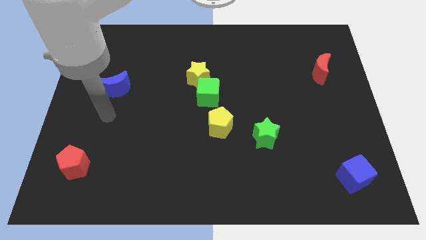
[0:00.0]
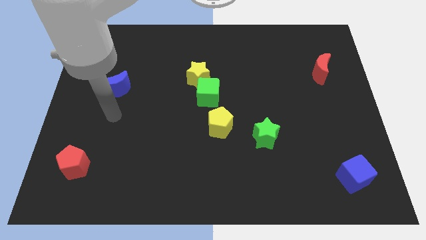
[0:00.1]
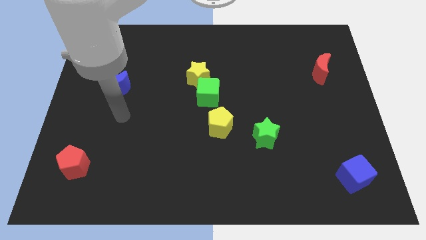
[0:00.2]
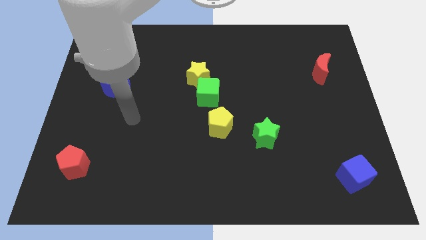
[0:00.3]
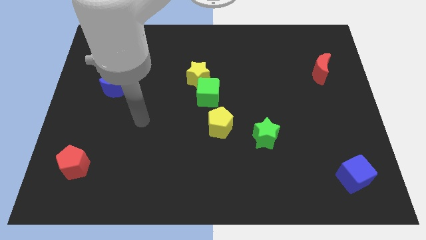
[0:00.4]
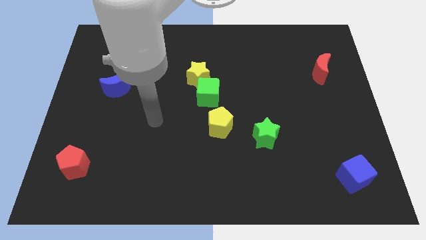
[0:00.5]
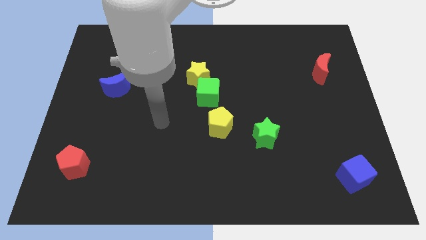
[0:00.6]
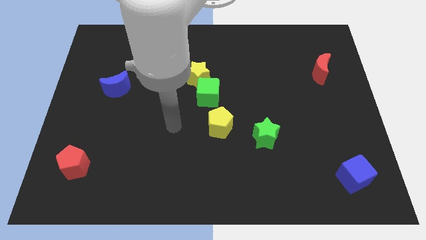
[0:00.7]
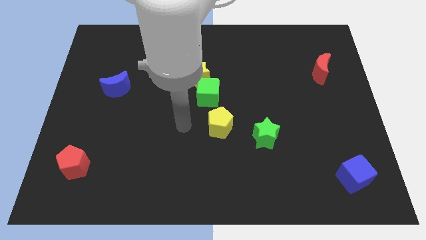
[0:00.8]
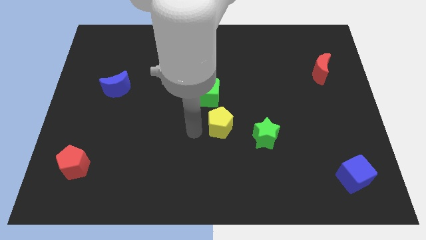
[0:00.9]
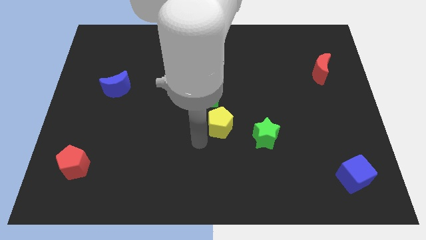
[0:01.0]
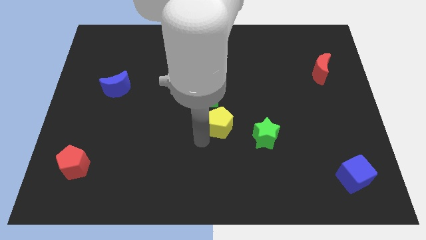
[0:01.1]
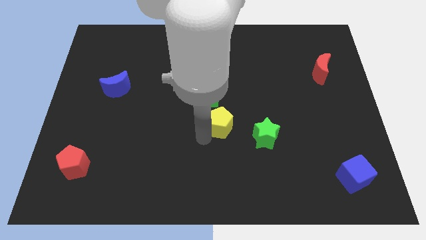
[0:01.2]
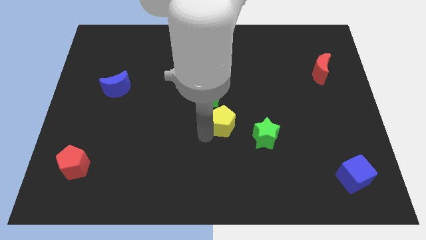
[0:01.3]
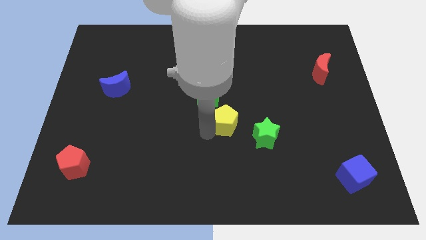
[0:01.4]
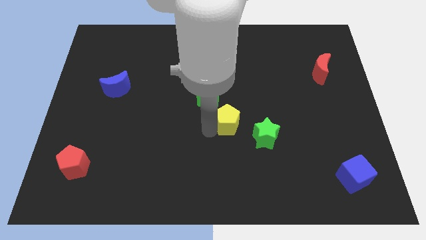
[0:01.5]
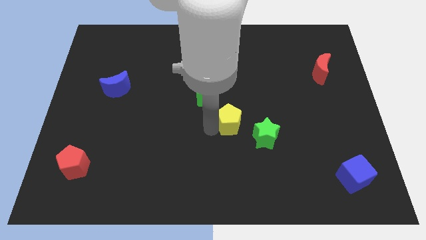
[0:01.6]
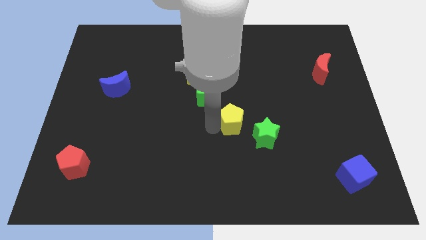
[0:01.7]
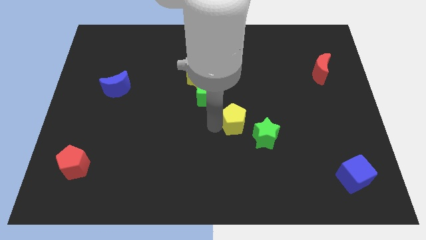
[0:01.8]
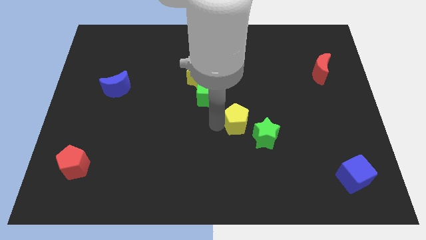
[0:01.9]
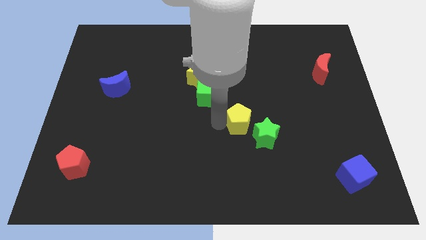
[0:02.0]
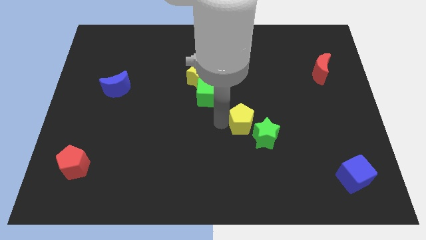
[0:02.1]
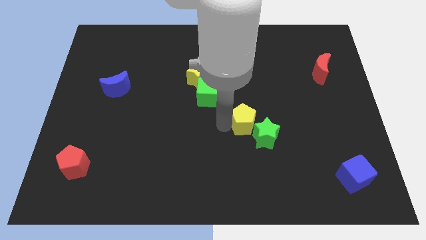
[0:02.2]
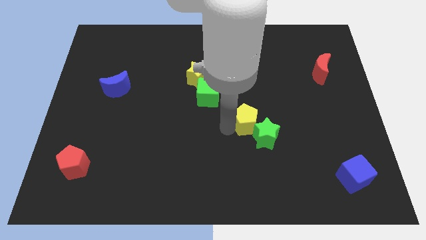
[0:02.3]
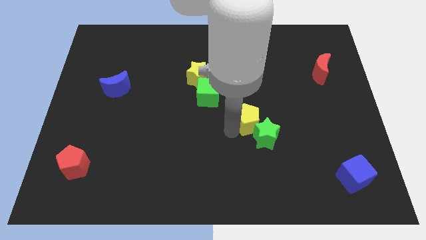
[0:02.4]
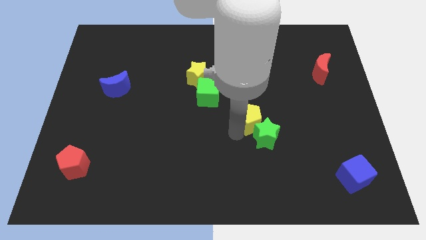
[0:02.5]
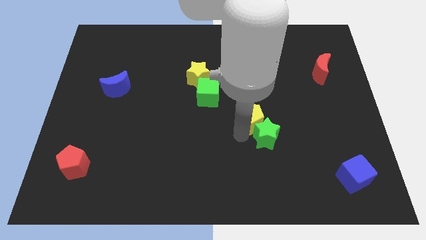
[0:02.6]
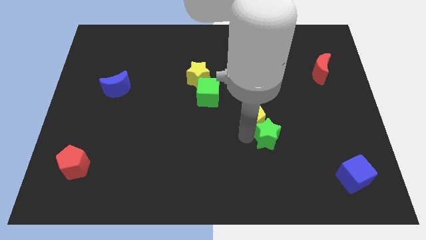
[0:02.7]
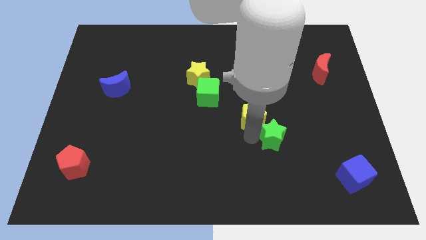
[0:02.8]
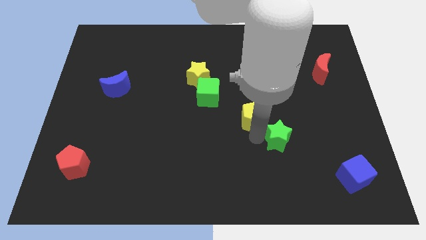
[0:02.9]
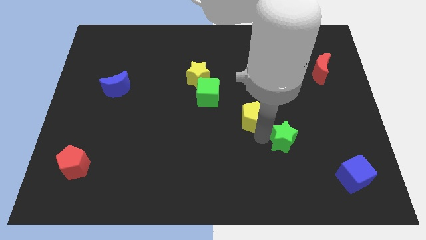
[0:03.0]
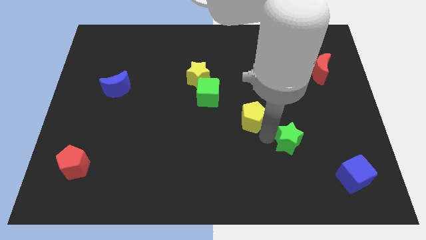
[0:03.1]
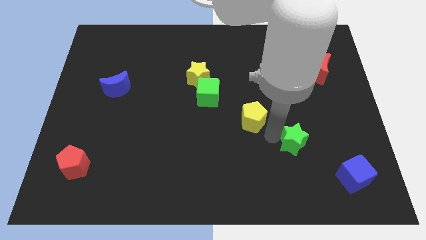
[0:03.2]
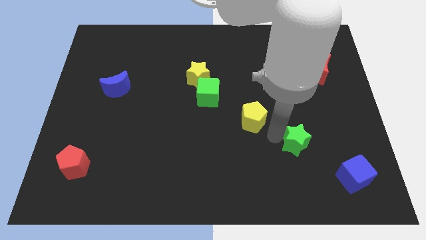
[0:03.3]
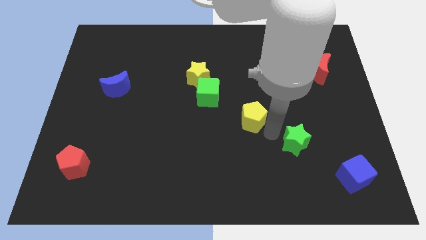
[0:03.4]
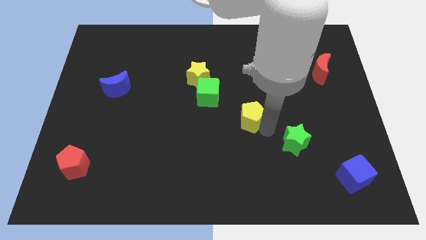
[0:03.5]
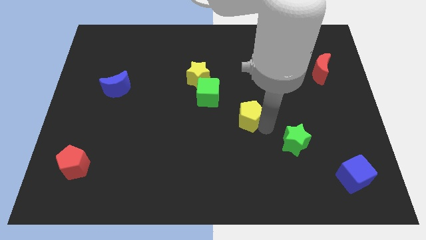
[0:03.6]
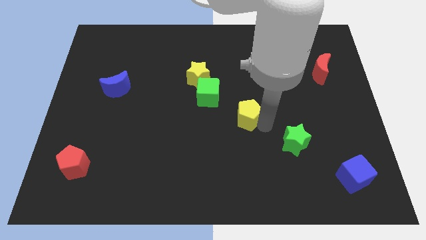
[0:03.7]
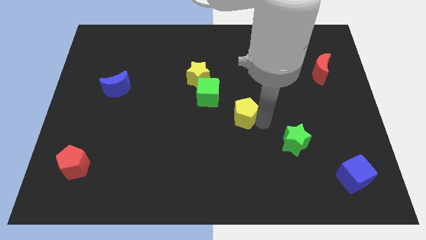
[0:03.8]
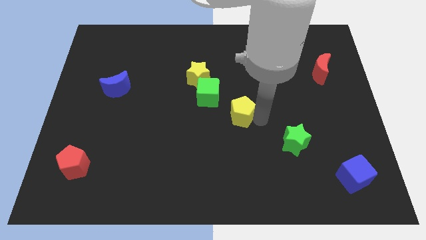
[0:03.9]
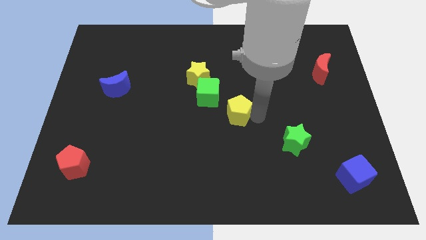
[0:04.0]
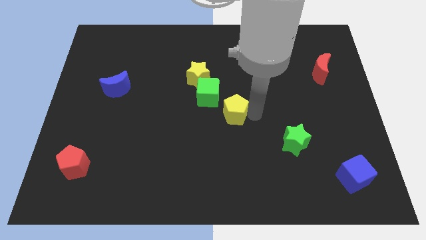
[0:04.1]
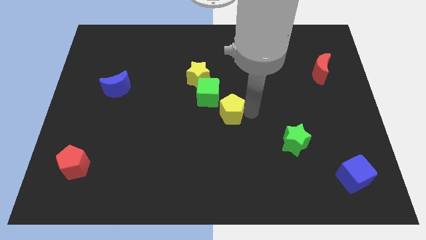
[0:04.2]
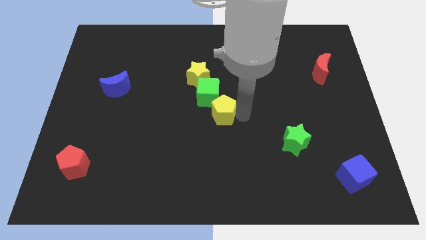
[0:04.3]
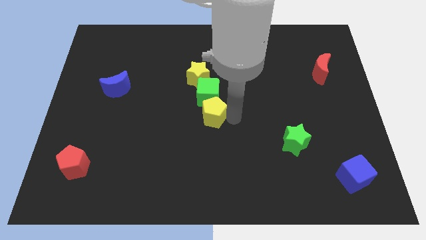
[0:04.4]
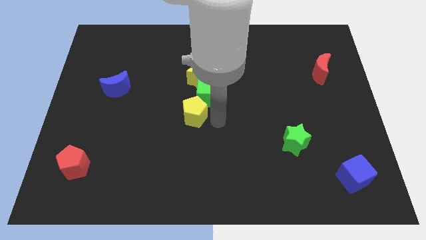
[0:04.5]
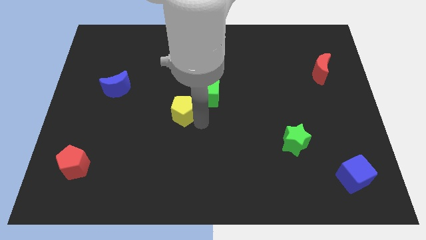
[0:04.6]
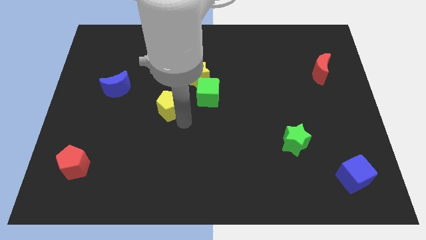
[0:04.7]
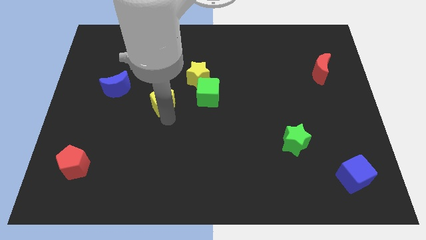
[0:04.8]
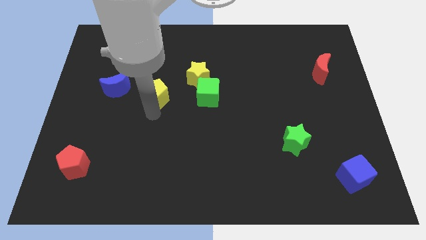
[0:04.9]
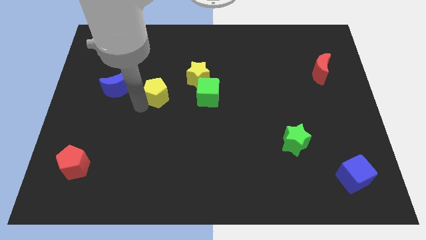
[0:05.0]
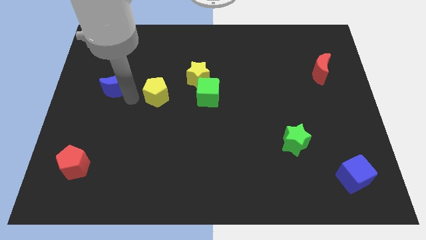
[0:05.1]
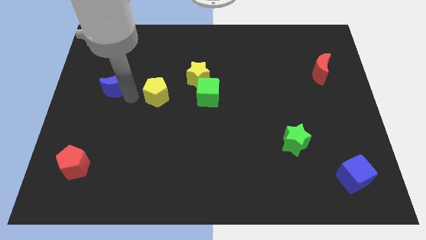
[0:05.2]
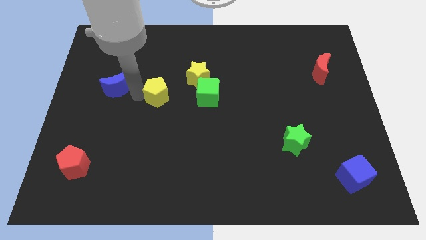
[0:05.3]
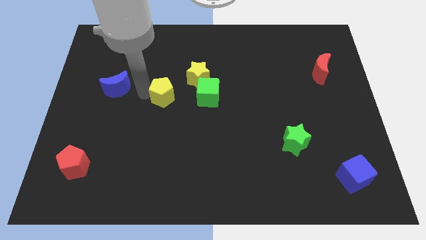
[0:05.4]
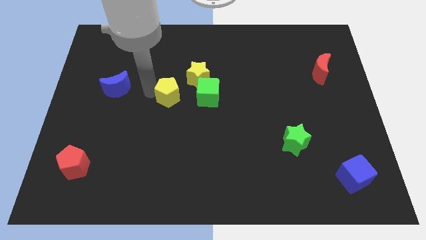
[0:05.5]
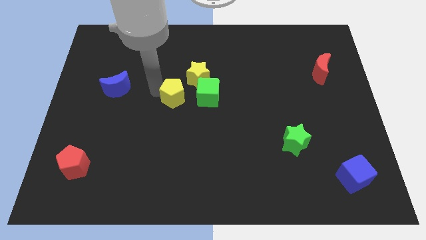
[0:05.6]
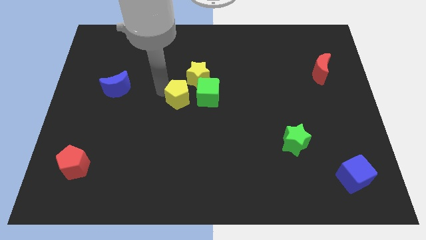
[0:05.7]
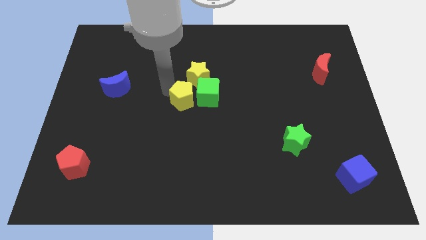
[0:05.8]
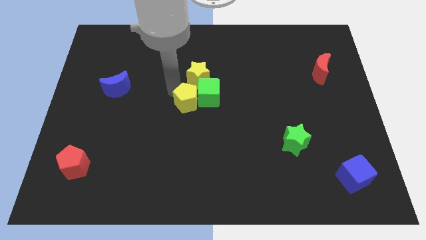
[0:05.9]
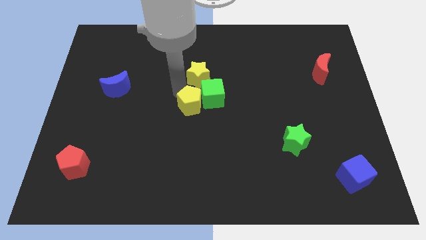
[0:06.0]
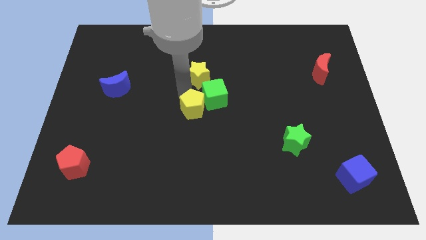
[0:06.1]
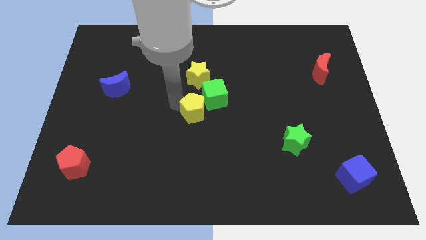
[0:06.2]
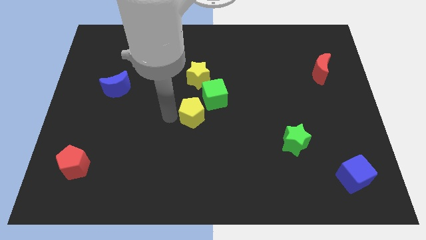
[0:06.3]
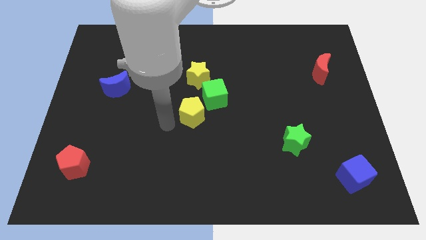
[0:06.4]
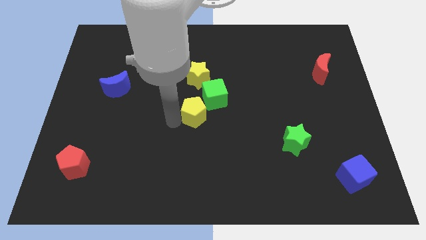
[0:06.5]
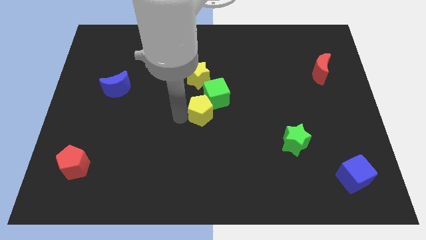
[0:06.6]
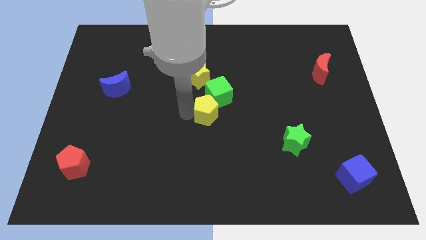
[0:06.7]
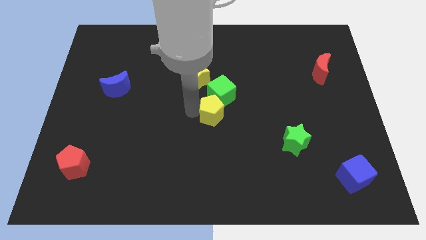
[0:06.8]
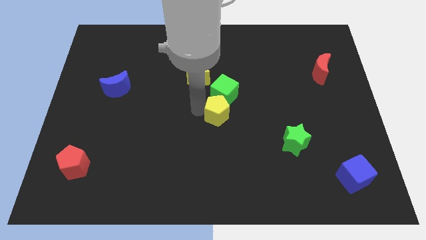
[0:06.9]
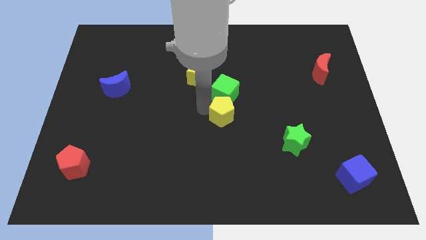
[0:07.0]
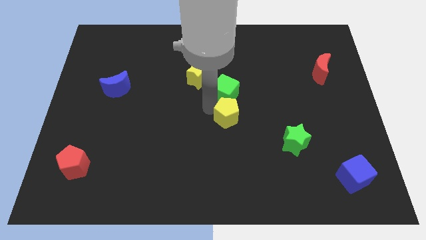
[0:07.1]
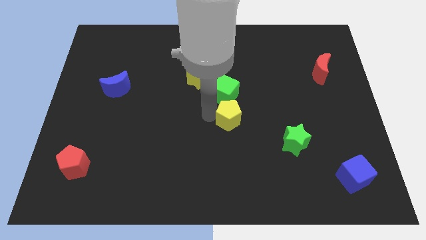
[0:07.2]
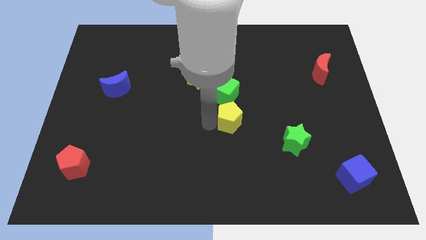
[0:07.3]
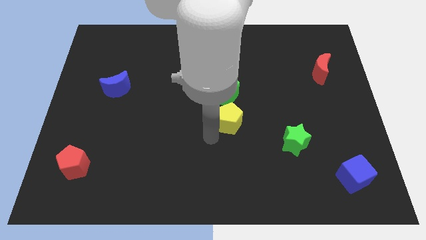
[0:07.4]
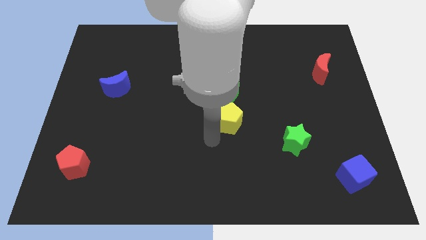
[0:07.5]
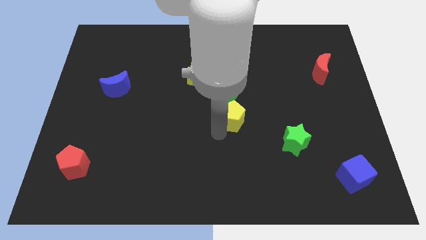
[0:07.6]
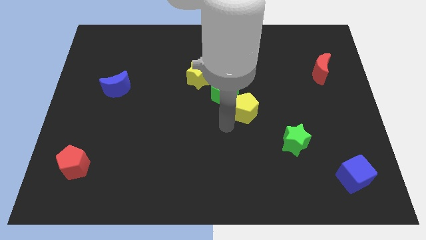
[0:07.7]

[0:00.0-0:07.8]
push the yellow pentagon a little upwards and right diagonally

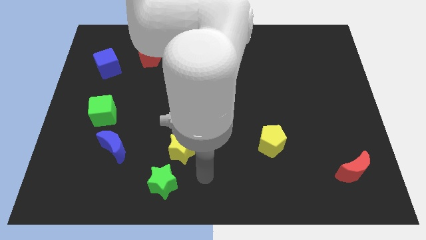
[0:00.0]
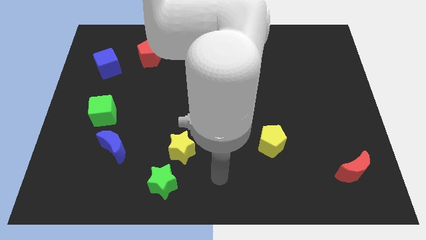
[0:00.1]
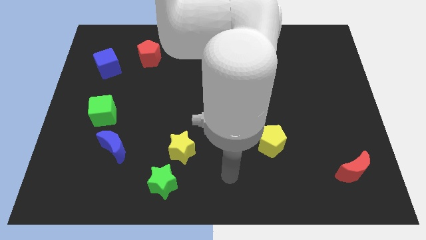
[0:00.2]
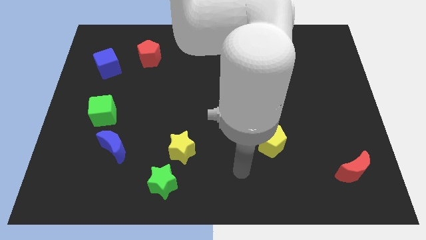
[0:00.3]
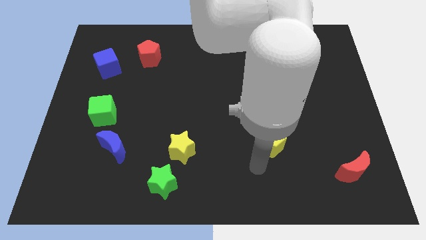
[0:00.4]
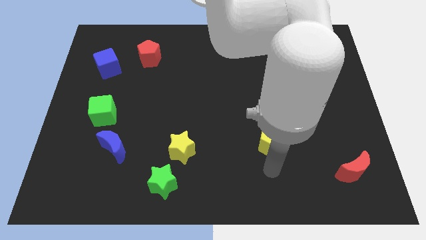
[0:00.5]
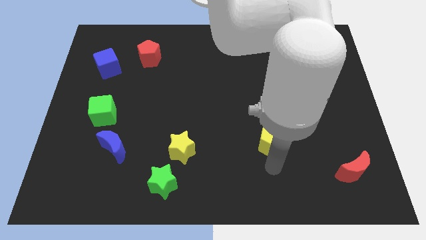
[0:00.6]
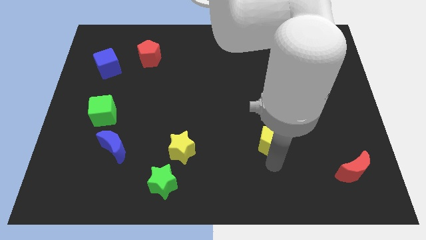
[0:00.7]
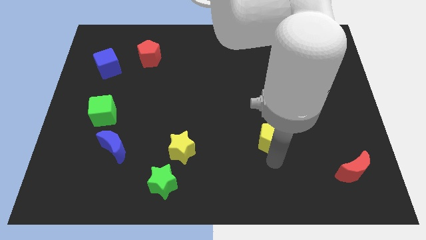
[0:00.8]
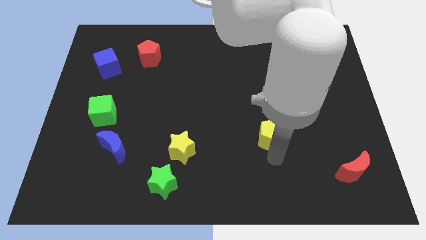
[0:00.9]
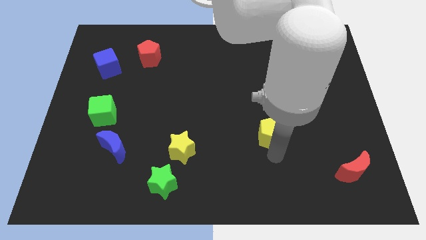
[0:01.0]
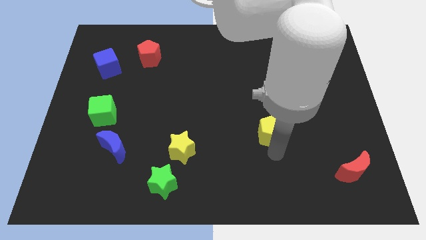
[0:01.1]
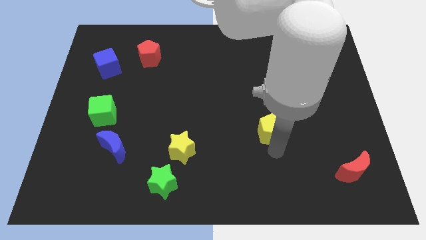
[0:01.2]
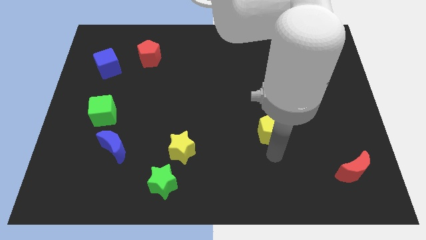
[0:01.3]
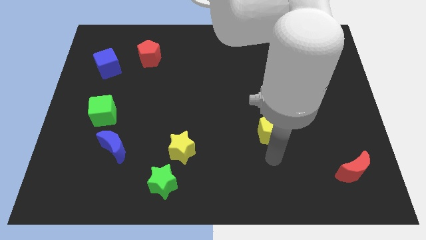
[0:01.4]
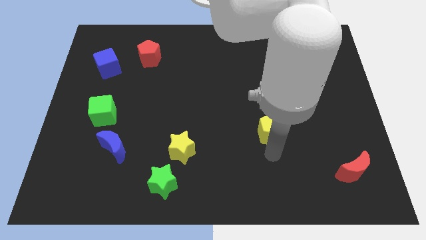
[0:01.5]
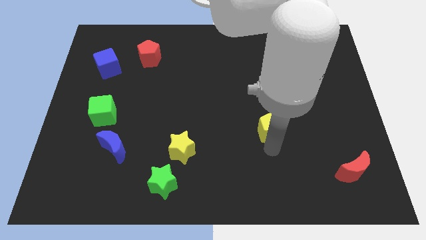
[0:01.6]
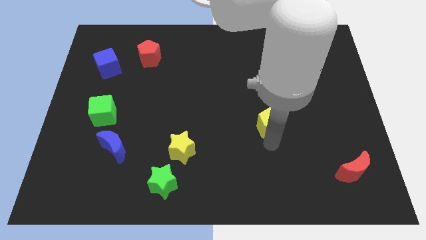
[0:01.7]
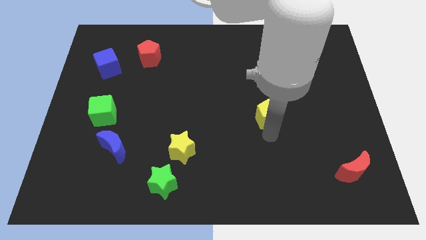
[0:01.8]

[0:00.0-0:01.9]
push the yellow pentagon upwards a bit
